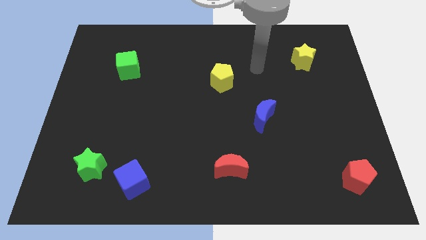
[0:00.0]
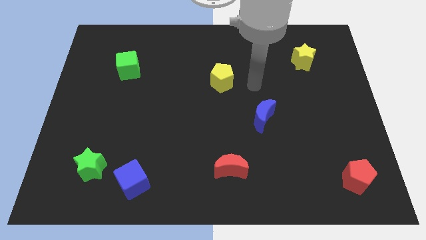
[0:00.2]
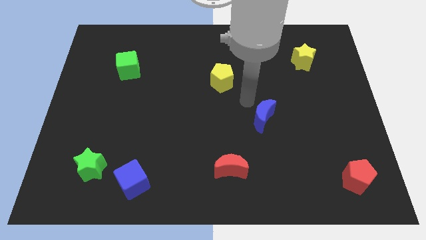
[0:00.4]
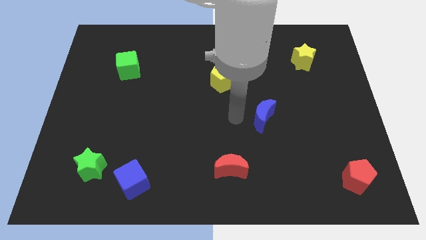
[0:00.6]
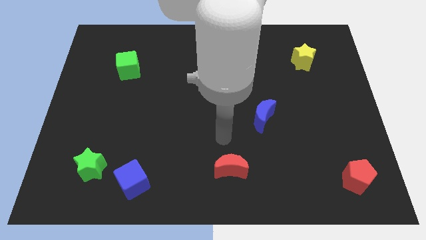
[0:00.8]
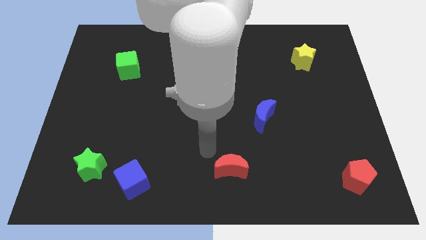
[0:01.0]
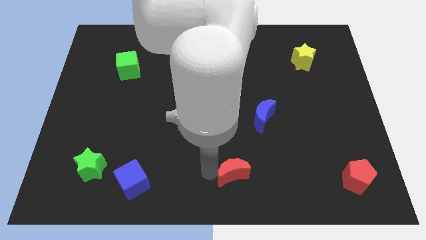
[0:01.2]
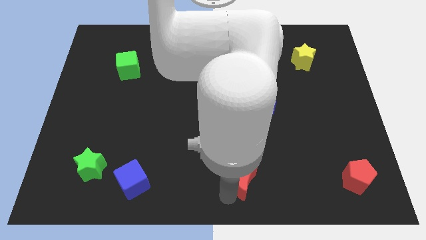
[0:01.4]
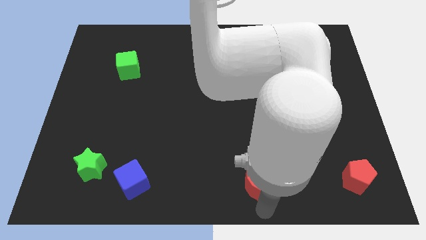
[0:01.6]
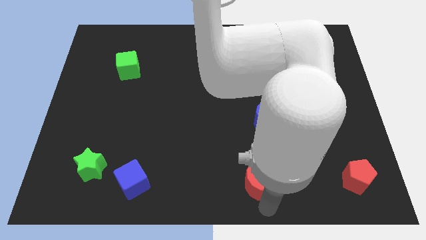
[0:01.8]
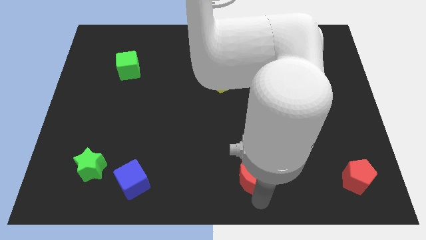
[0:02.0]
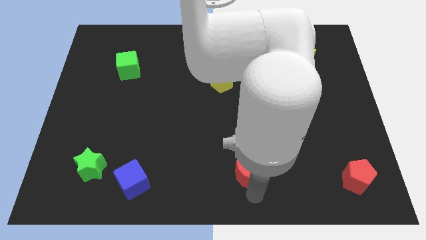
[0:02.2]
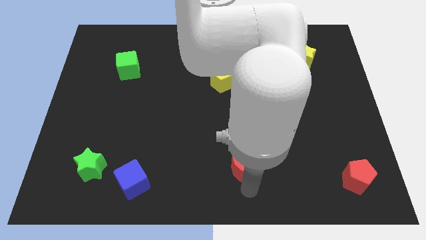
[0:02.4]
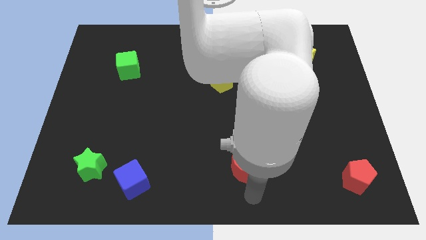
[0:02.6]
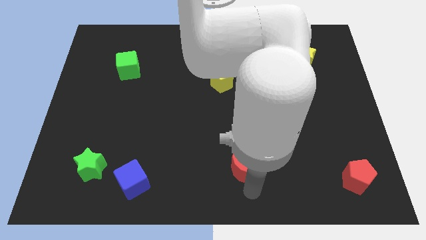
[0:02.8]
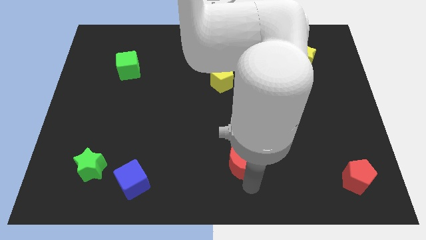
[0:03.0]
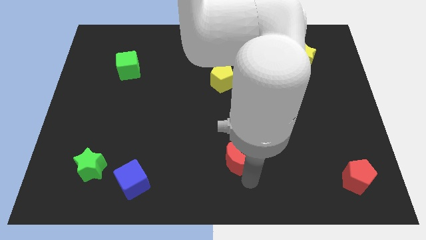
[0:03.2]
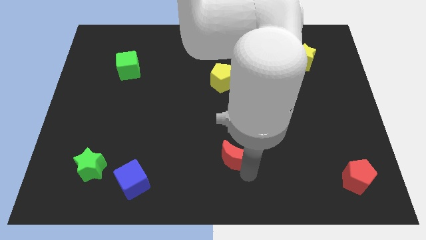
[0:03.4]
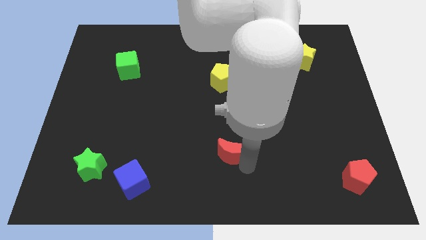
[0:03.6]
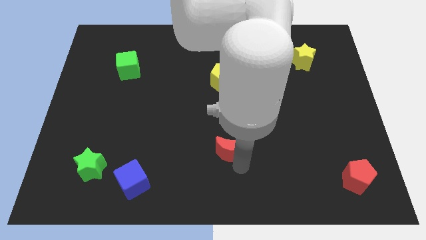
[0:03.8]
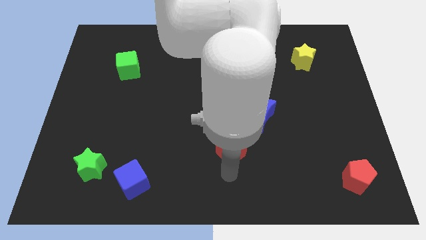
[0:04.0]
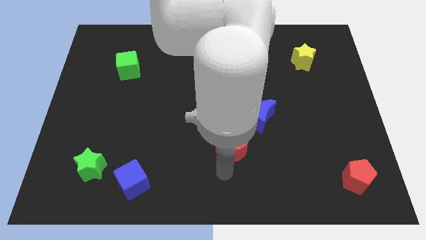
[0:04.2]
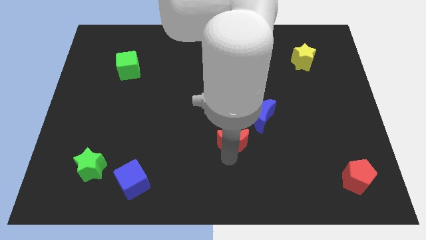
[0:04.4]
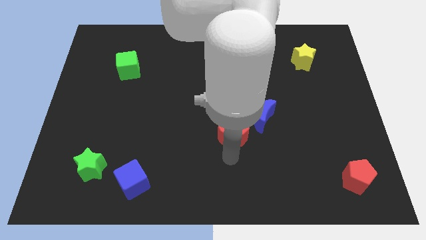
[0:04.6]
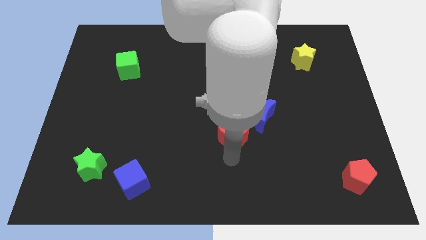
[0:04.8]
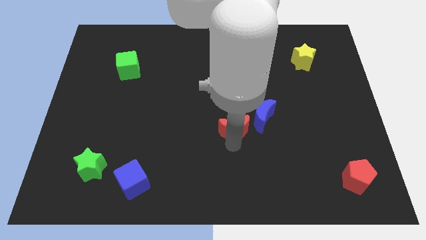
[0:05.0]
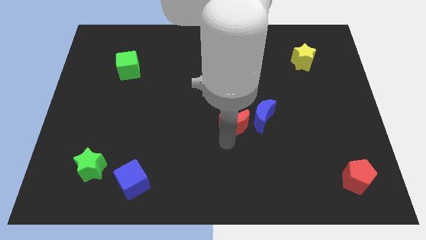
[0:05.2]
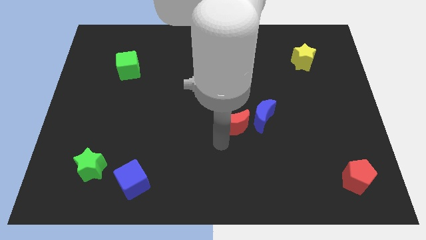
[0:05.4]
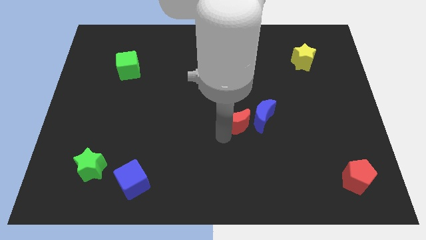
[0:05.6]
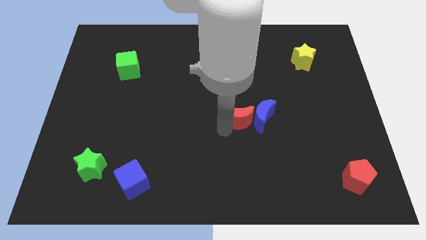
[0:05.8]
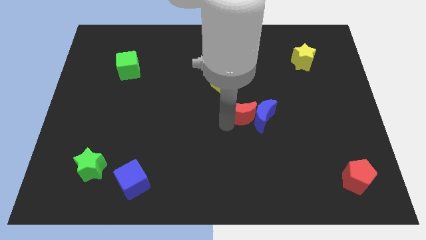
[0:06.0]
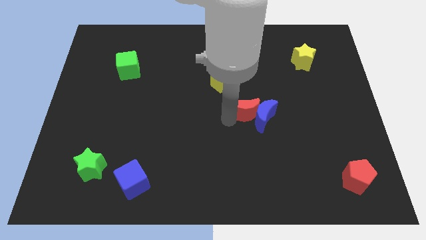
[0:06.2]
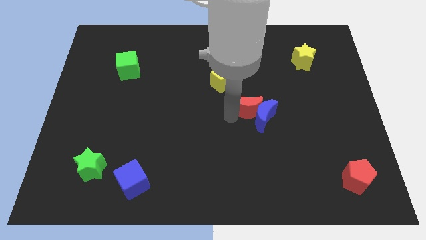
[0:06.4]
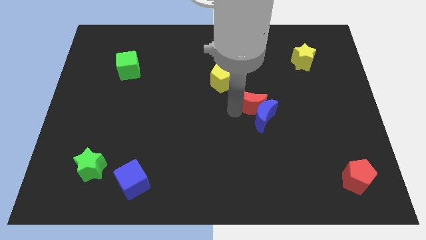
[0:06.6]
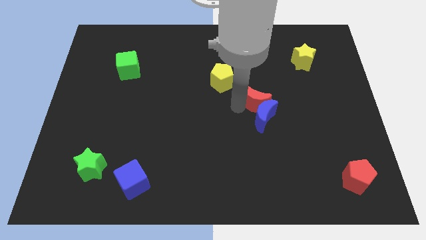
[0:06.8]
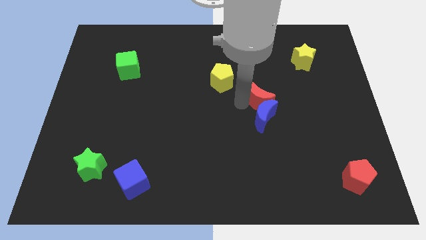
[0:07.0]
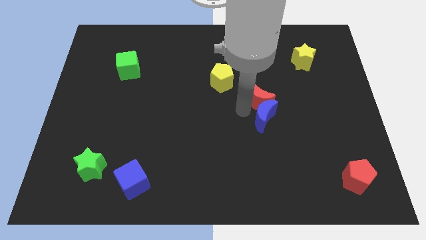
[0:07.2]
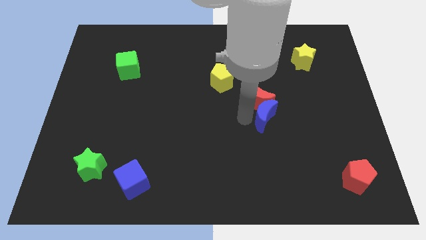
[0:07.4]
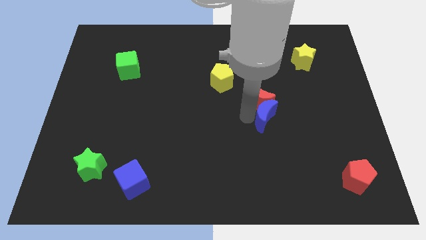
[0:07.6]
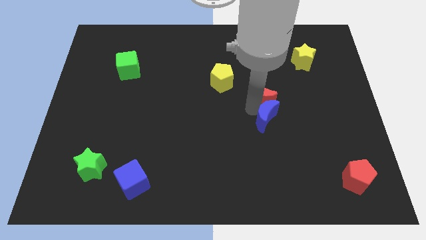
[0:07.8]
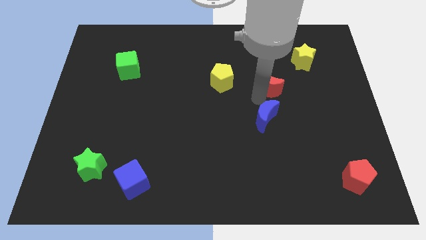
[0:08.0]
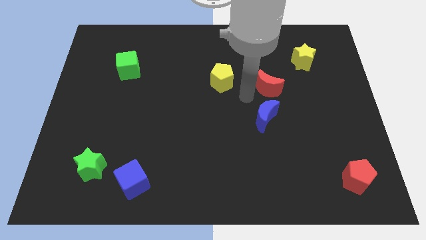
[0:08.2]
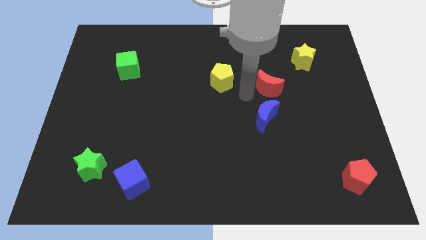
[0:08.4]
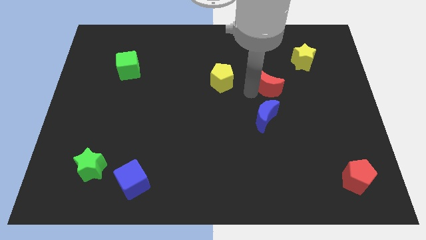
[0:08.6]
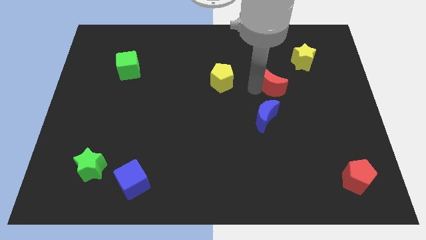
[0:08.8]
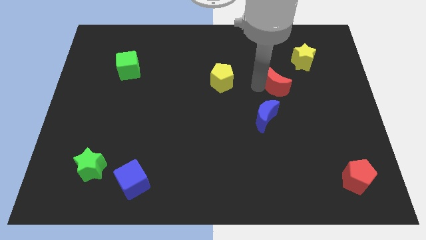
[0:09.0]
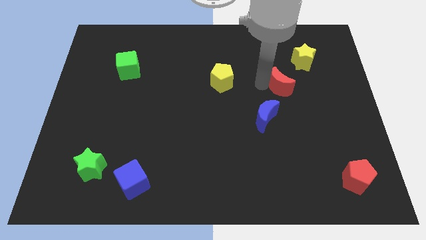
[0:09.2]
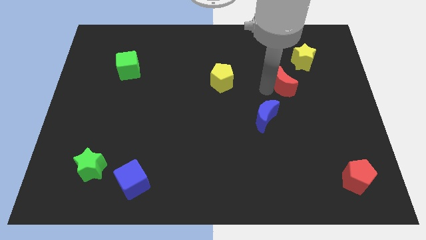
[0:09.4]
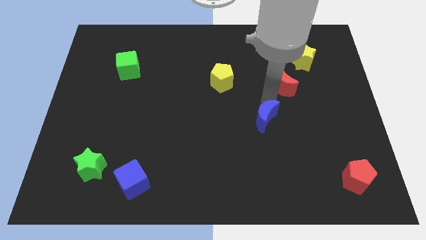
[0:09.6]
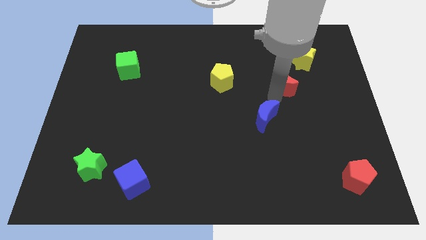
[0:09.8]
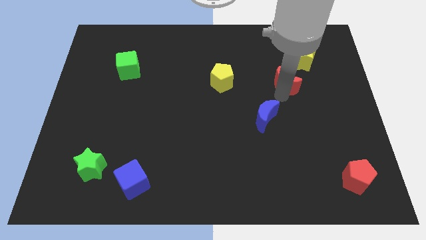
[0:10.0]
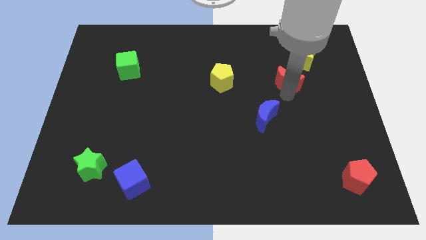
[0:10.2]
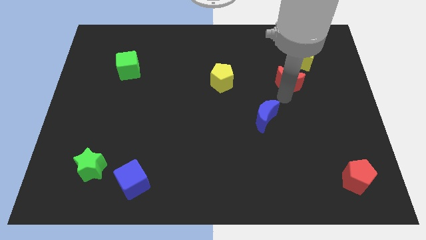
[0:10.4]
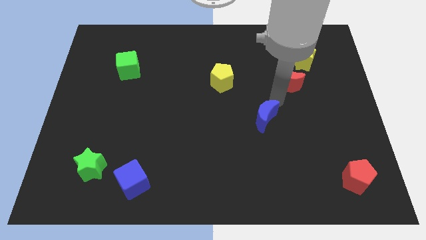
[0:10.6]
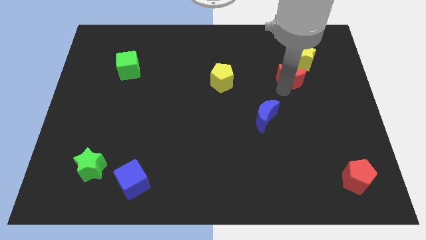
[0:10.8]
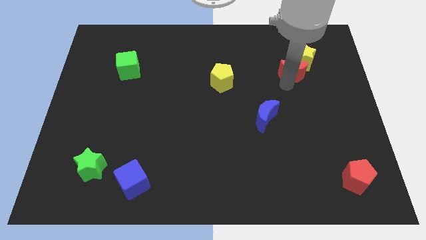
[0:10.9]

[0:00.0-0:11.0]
slide the red moon towards the yellow star

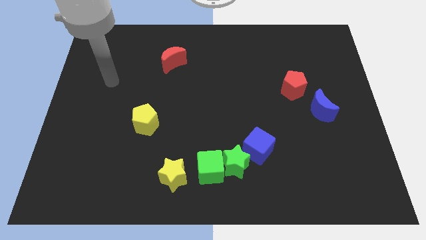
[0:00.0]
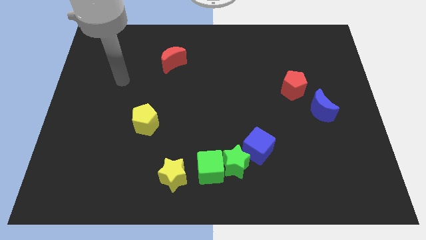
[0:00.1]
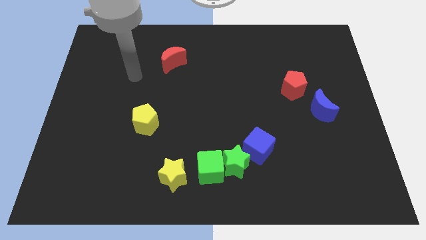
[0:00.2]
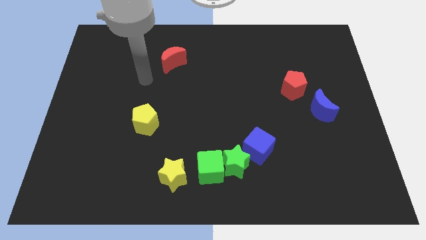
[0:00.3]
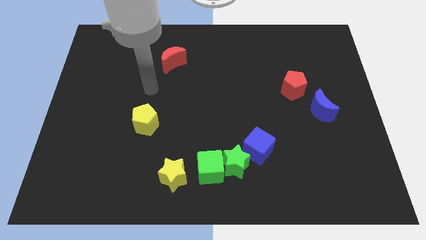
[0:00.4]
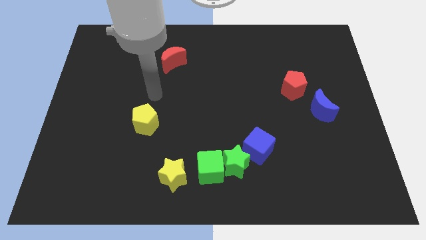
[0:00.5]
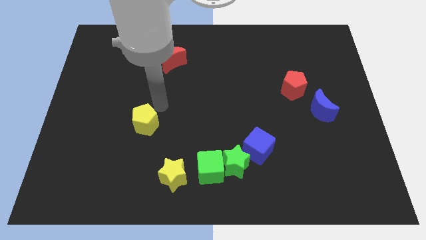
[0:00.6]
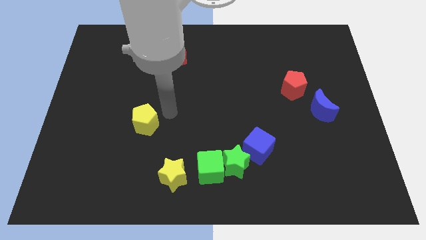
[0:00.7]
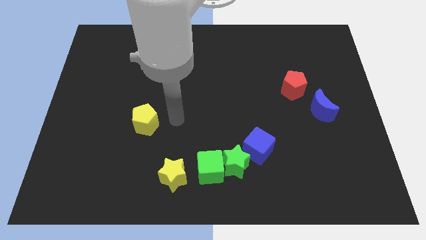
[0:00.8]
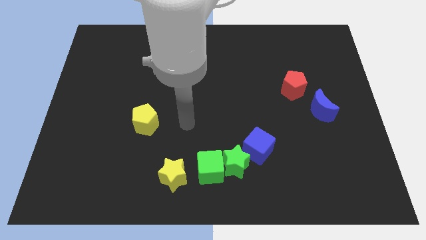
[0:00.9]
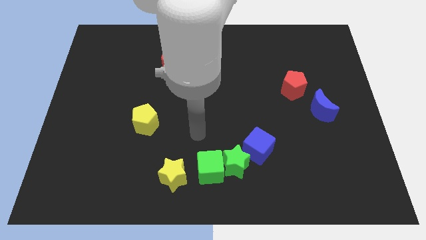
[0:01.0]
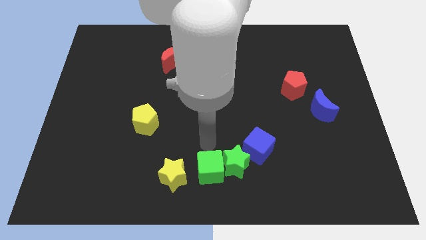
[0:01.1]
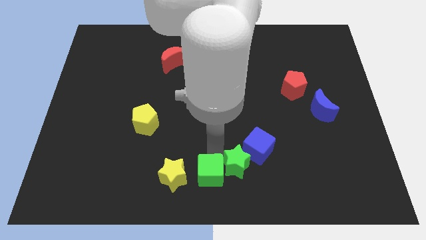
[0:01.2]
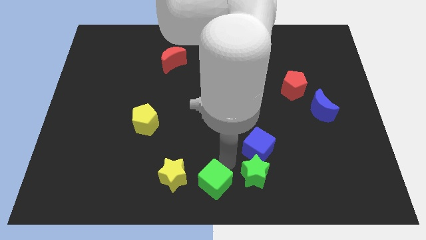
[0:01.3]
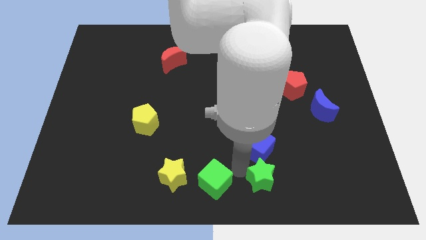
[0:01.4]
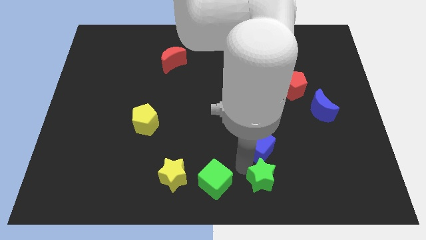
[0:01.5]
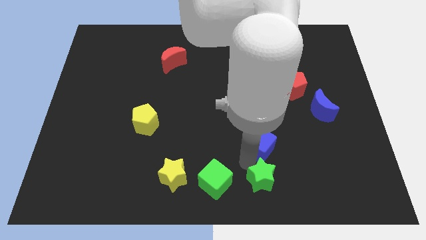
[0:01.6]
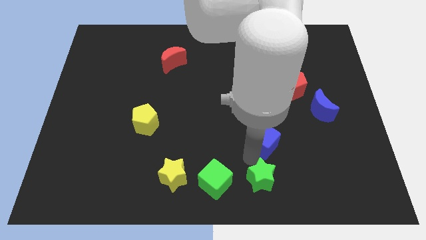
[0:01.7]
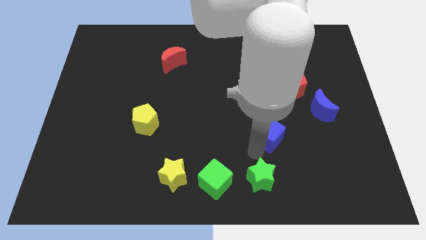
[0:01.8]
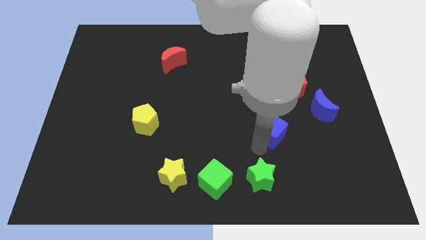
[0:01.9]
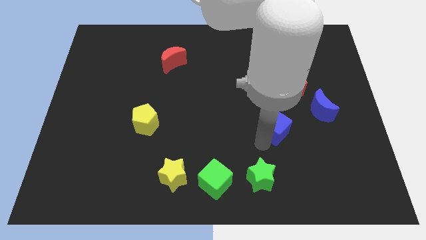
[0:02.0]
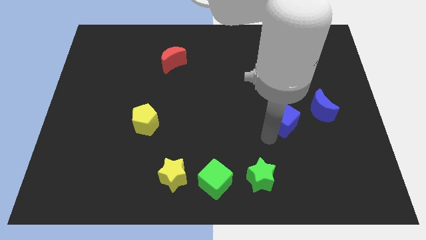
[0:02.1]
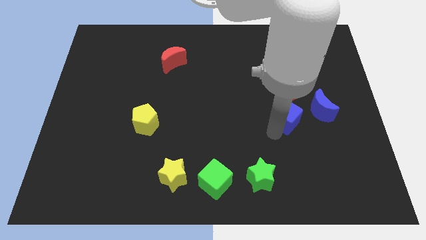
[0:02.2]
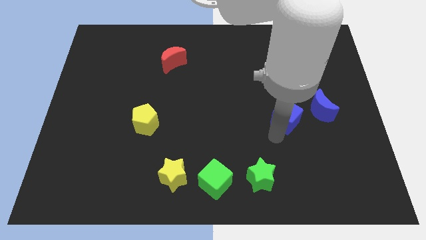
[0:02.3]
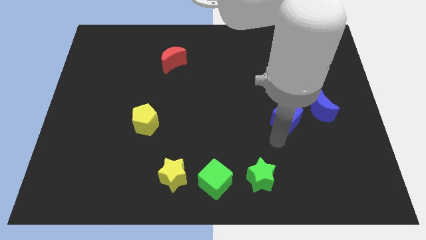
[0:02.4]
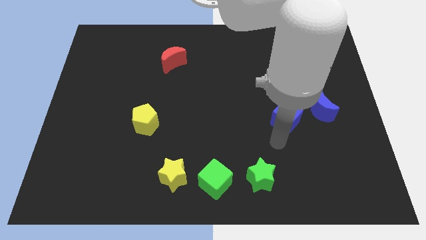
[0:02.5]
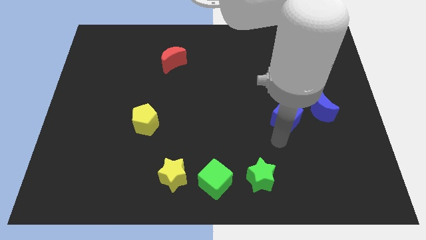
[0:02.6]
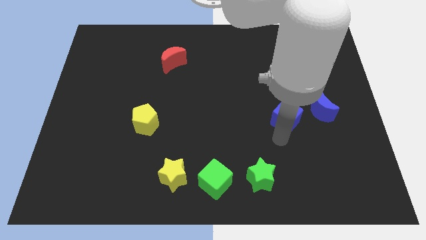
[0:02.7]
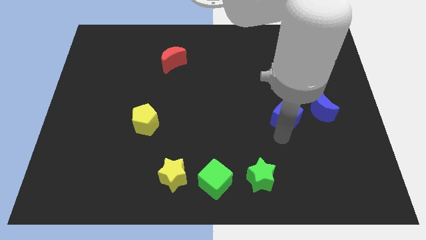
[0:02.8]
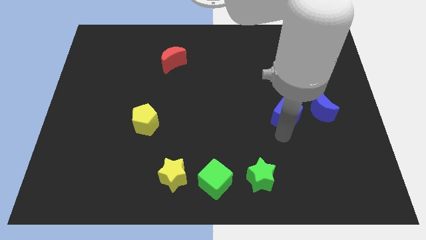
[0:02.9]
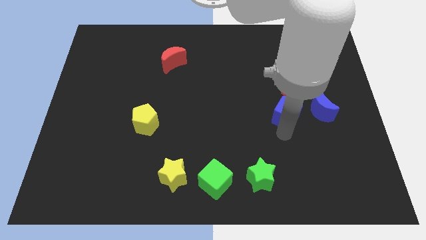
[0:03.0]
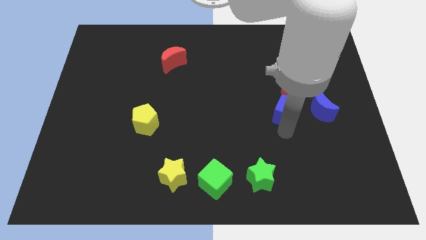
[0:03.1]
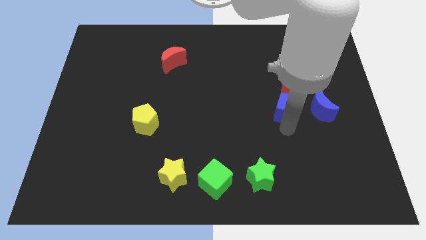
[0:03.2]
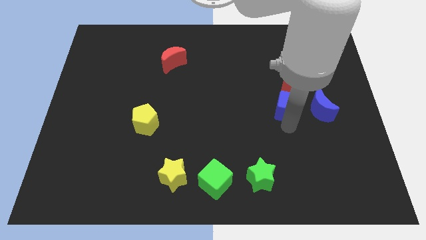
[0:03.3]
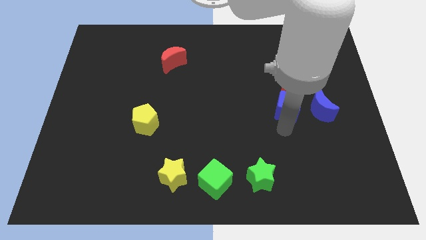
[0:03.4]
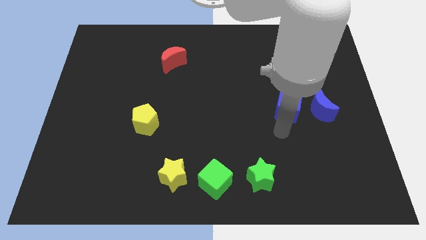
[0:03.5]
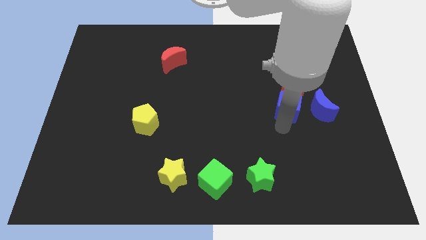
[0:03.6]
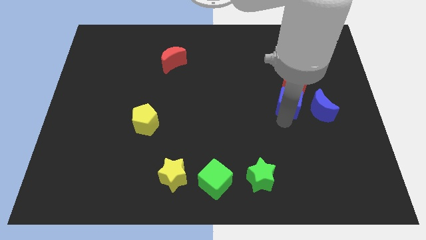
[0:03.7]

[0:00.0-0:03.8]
push the blue cube to the red pentagon
